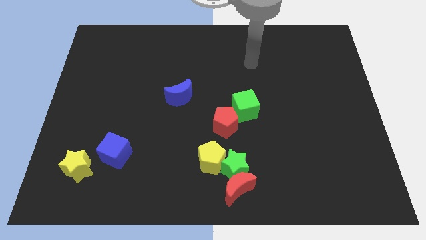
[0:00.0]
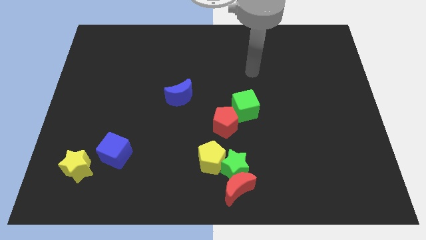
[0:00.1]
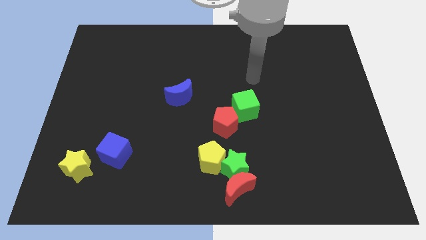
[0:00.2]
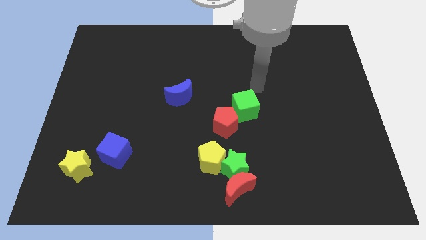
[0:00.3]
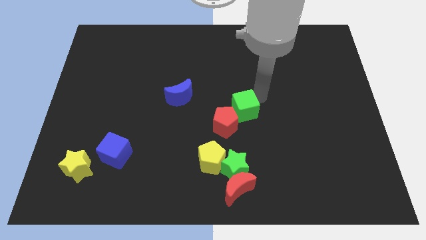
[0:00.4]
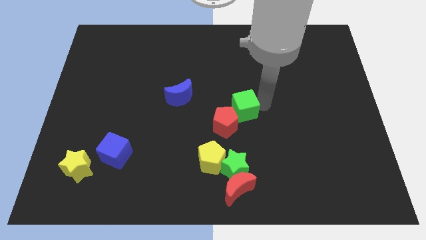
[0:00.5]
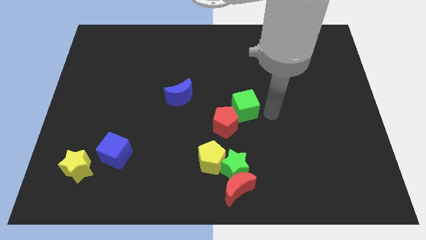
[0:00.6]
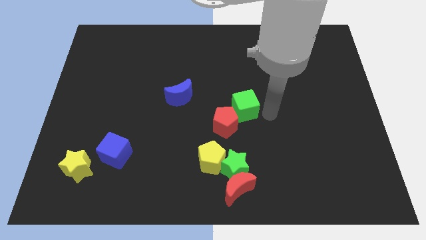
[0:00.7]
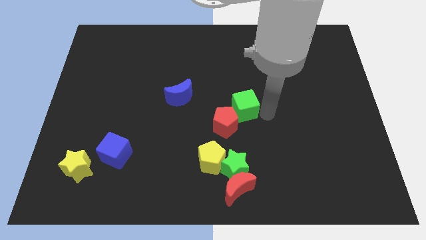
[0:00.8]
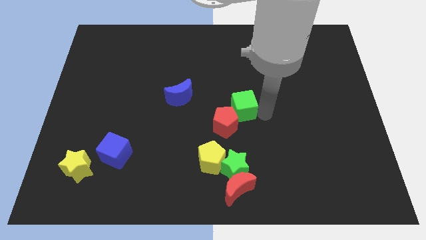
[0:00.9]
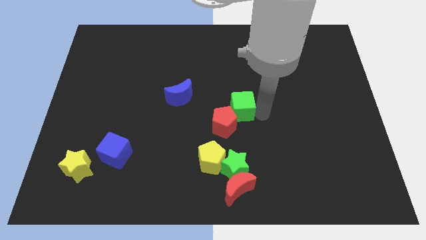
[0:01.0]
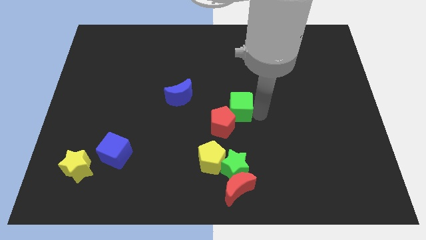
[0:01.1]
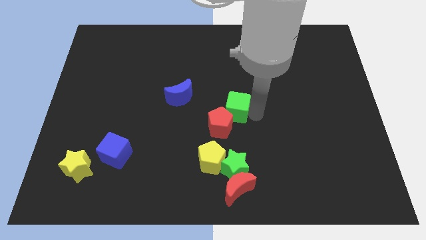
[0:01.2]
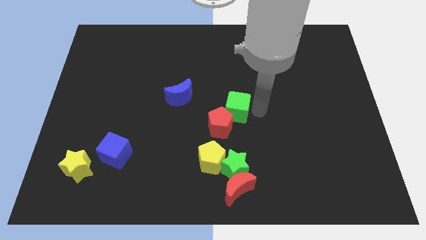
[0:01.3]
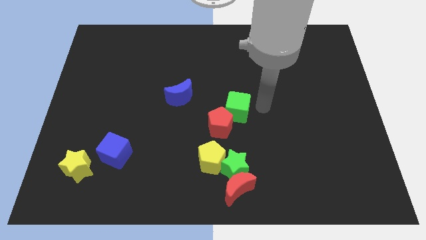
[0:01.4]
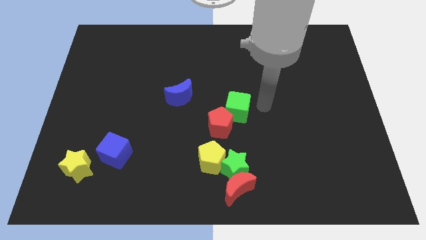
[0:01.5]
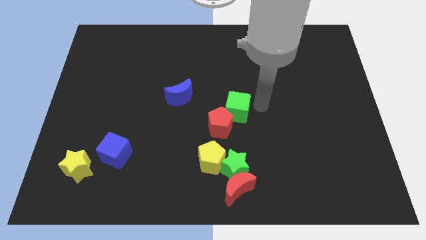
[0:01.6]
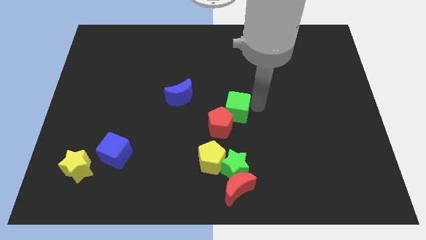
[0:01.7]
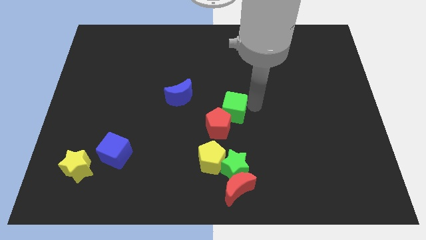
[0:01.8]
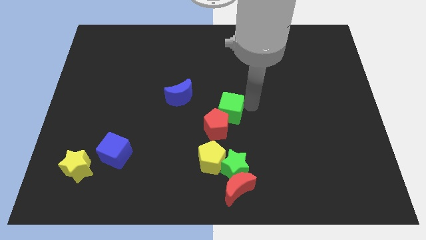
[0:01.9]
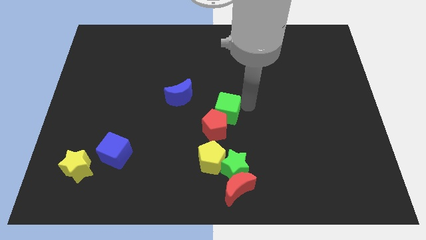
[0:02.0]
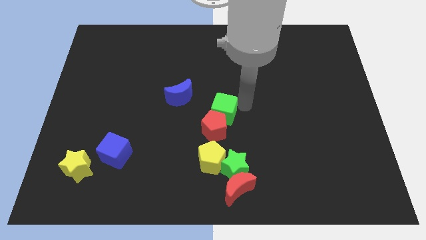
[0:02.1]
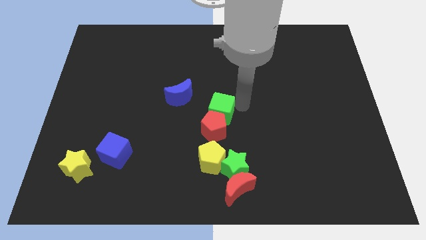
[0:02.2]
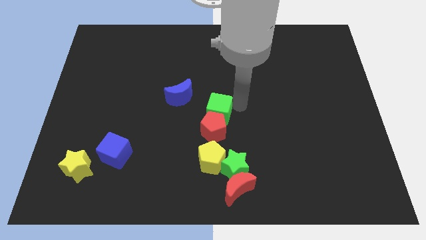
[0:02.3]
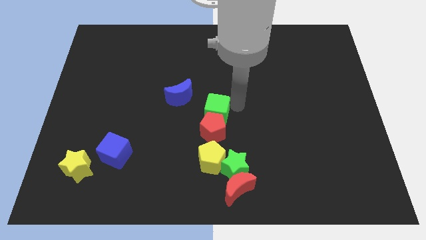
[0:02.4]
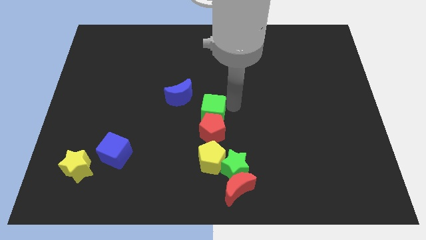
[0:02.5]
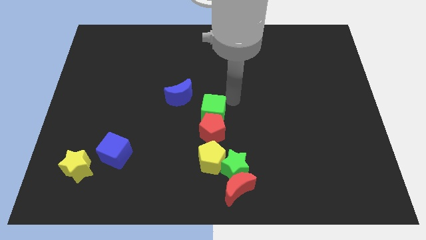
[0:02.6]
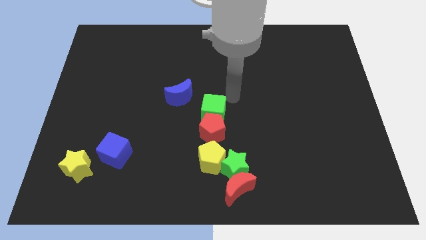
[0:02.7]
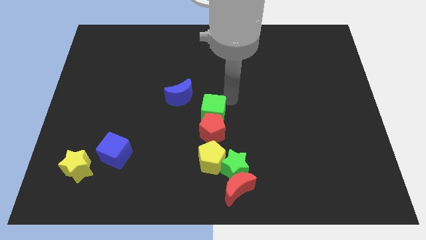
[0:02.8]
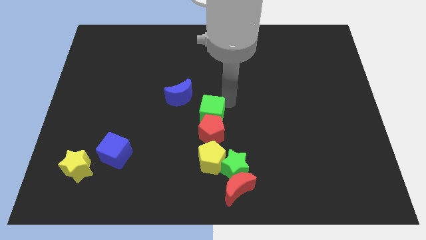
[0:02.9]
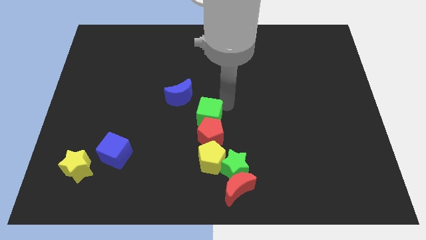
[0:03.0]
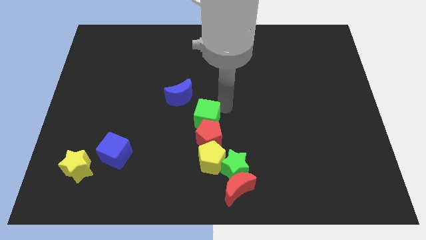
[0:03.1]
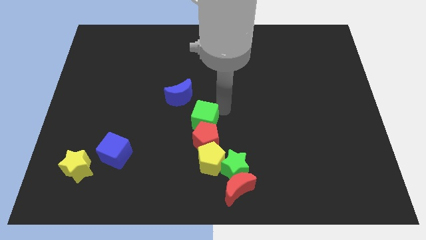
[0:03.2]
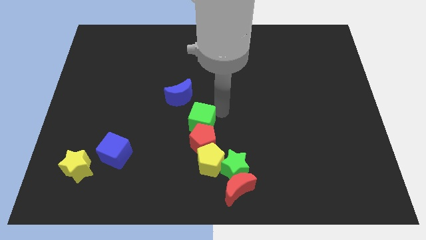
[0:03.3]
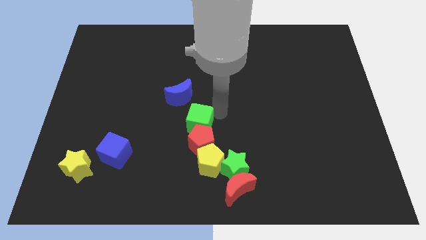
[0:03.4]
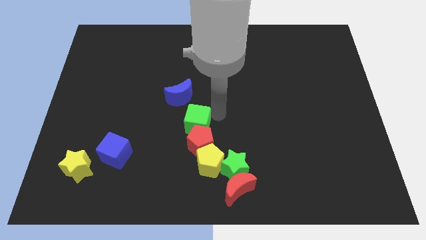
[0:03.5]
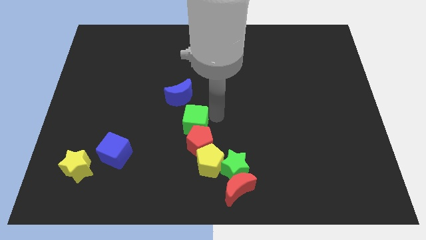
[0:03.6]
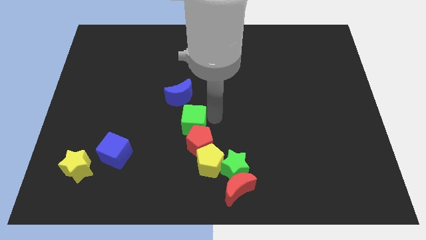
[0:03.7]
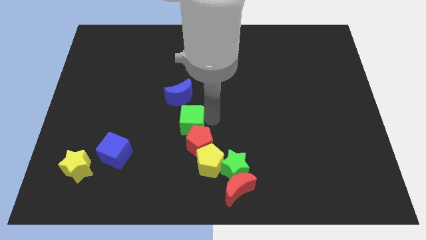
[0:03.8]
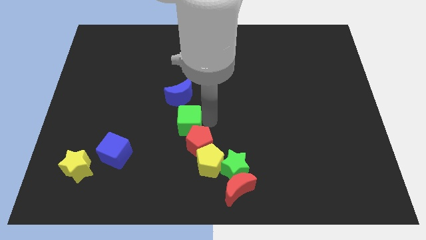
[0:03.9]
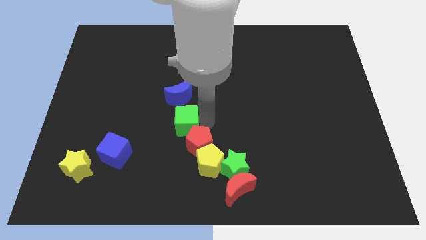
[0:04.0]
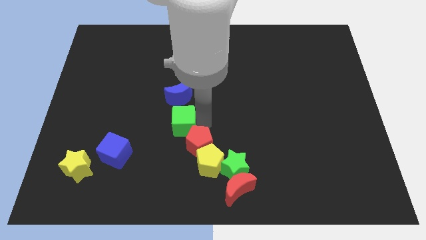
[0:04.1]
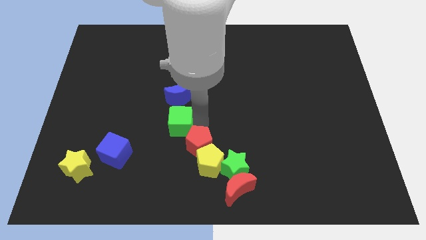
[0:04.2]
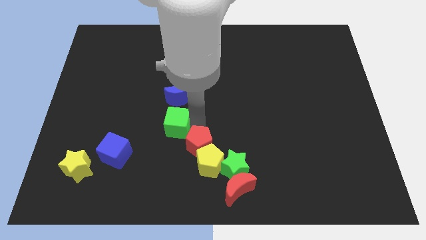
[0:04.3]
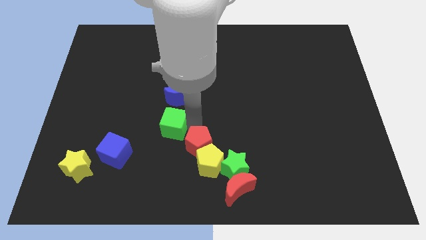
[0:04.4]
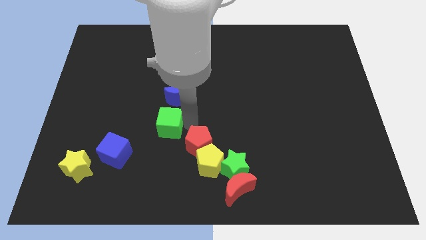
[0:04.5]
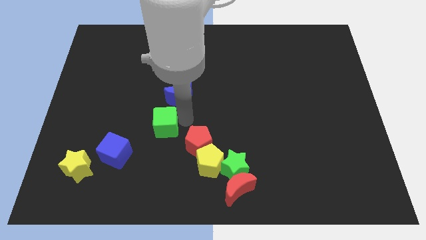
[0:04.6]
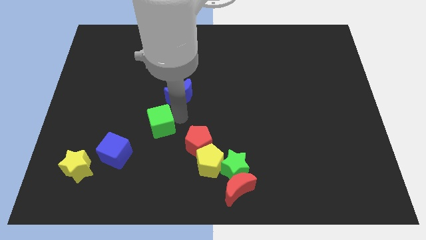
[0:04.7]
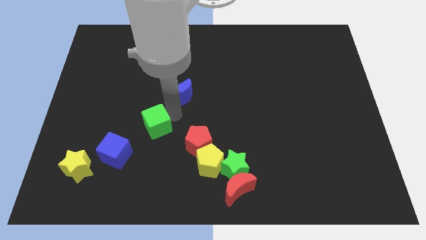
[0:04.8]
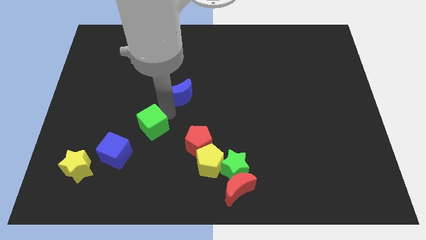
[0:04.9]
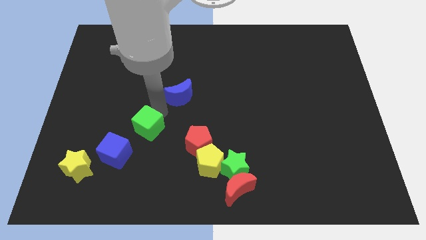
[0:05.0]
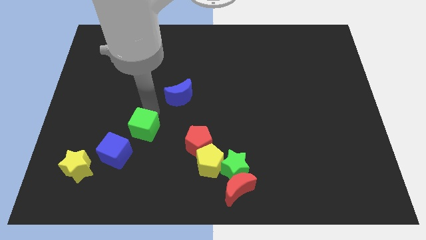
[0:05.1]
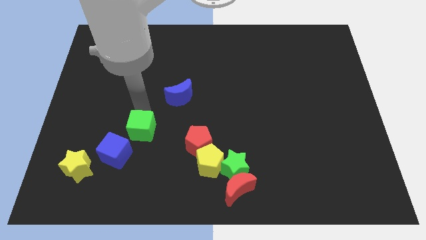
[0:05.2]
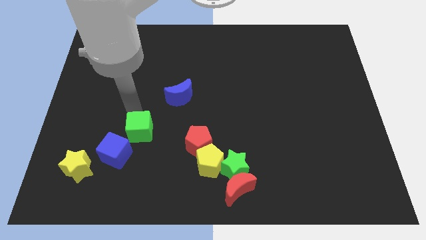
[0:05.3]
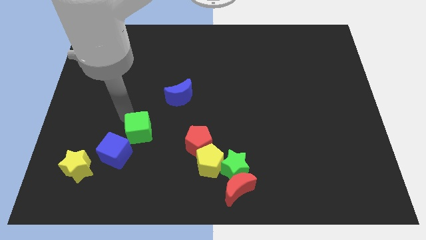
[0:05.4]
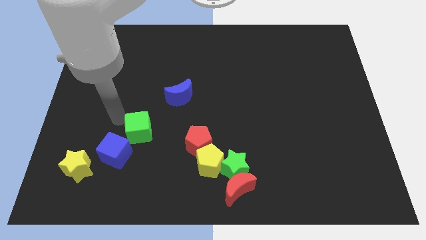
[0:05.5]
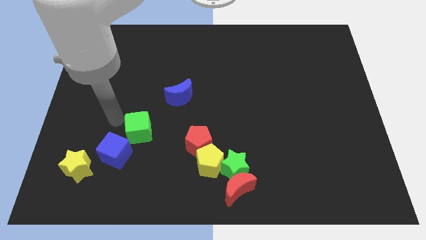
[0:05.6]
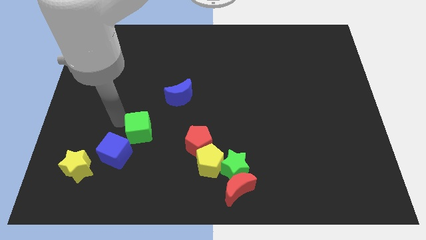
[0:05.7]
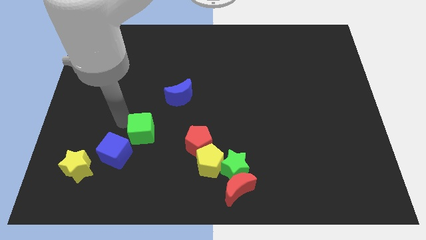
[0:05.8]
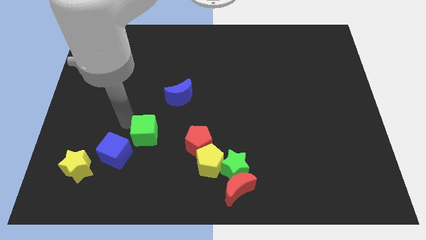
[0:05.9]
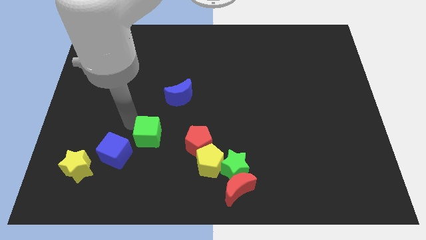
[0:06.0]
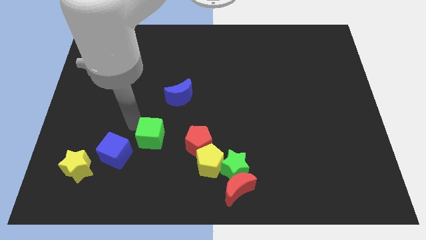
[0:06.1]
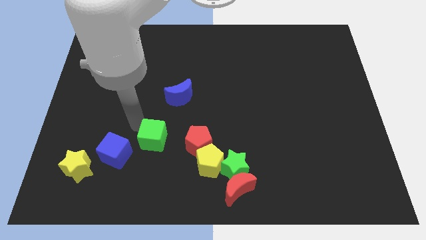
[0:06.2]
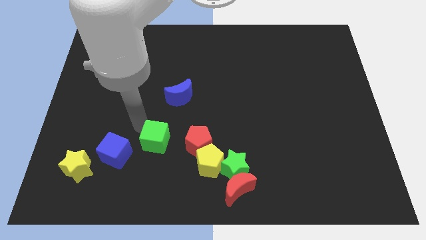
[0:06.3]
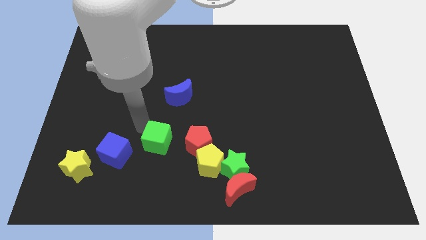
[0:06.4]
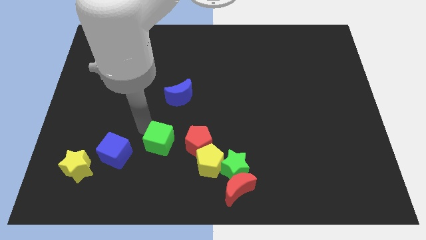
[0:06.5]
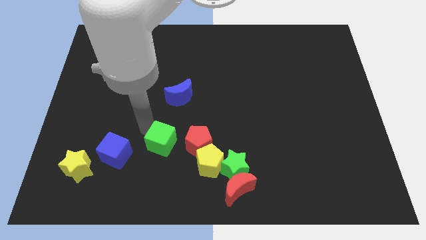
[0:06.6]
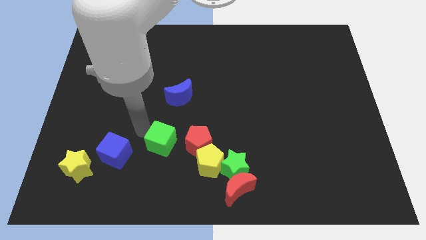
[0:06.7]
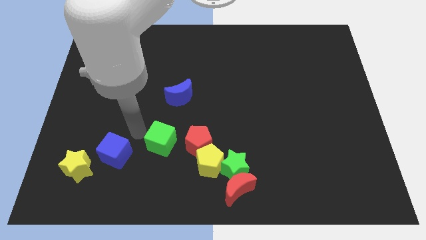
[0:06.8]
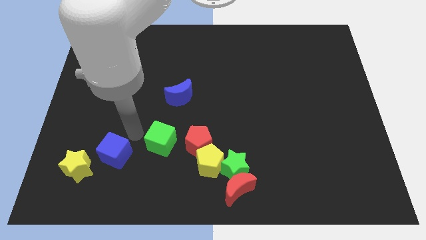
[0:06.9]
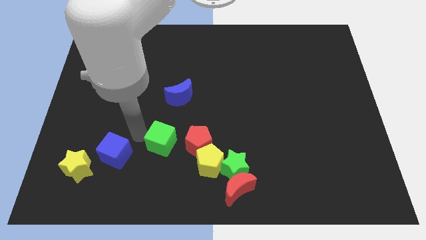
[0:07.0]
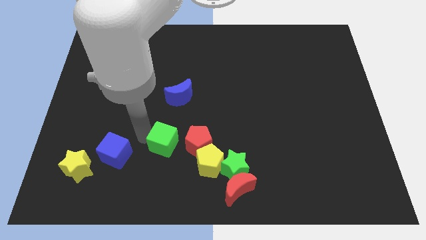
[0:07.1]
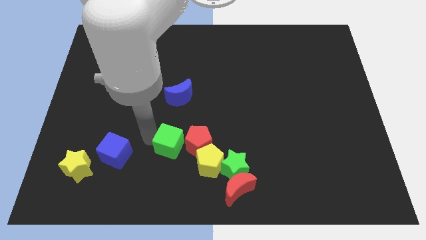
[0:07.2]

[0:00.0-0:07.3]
put the green cube left of the yellow pentagon
